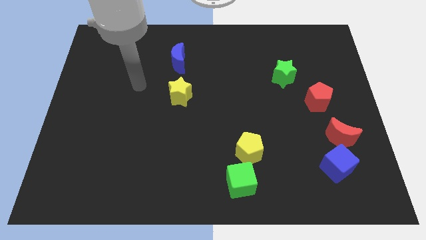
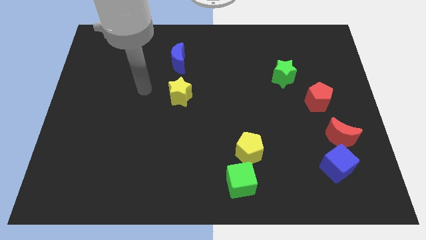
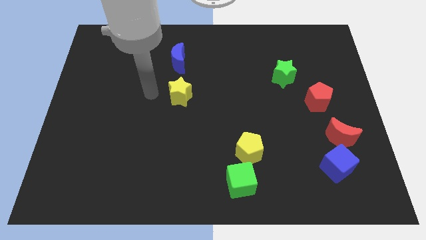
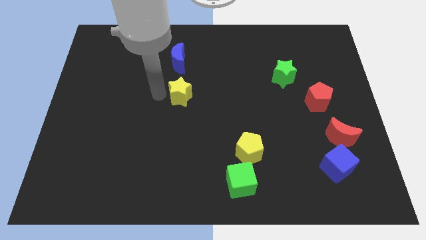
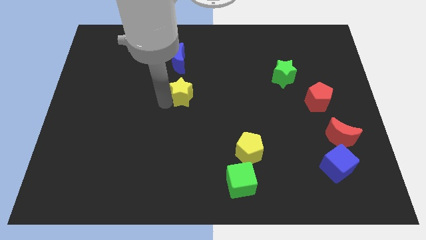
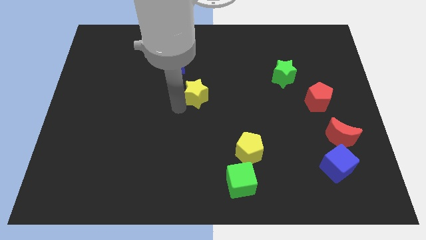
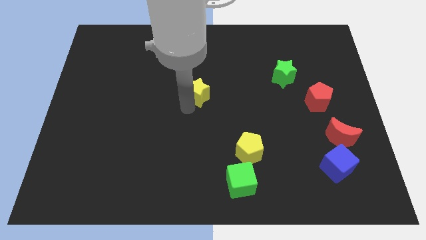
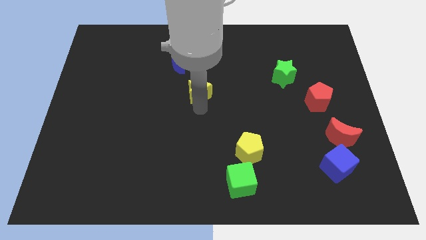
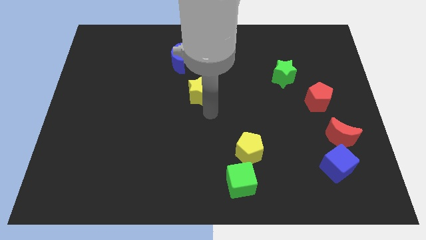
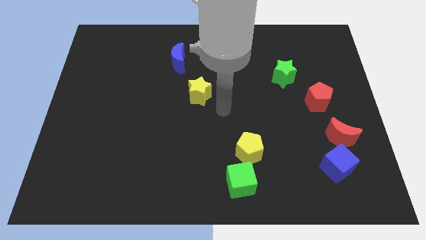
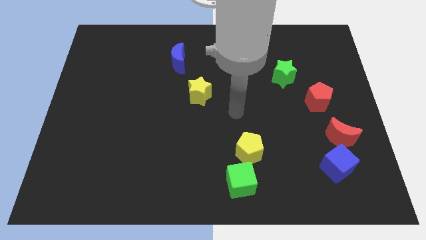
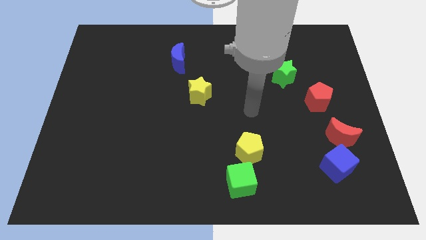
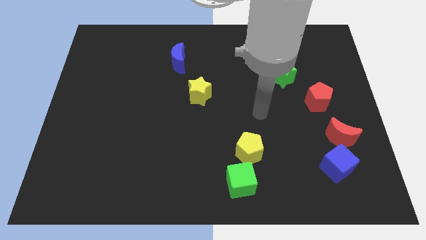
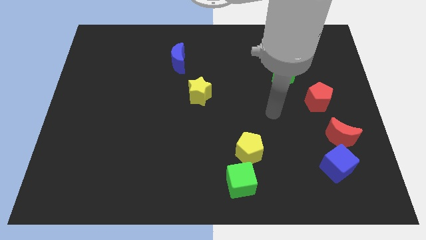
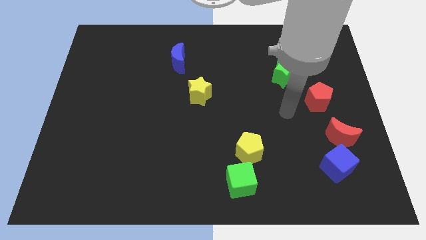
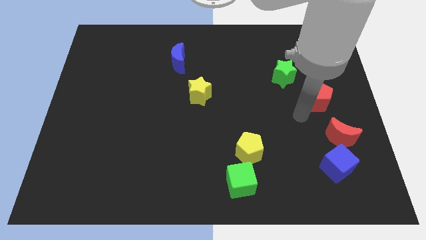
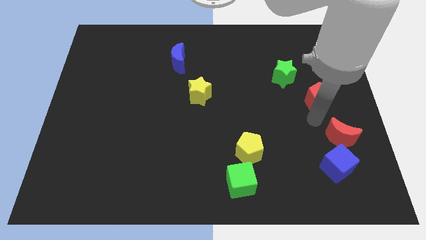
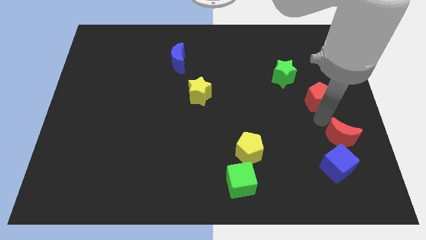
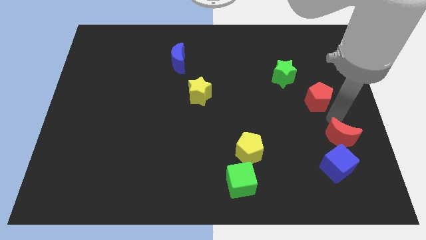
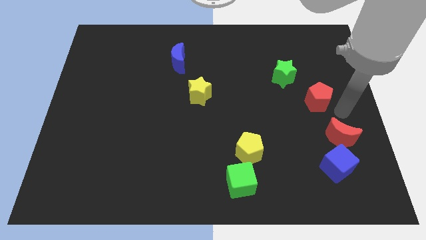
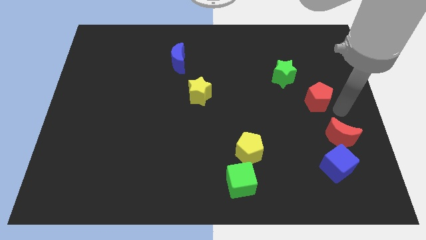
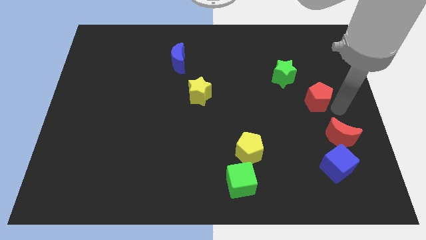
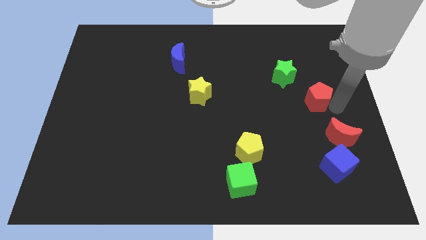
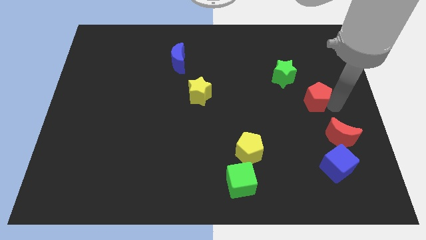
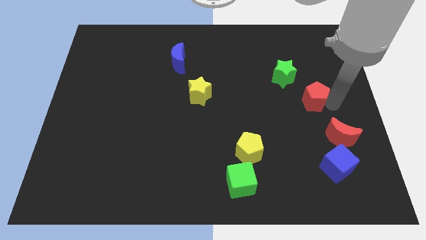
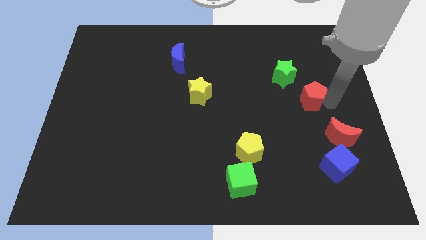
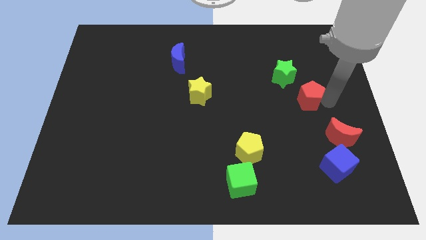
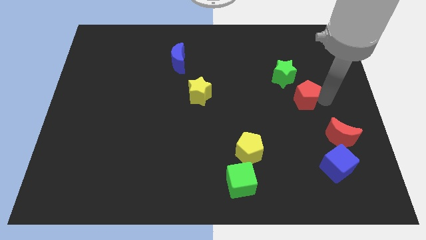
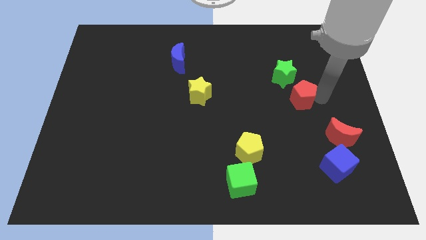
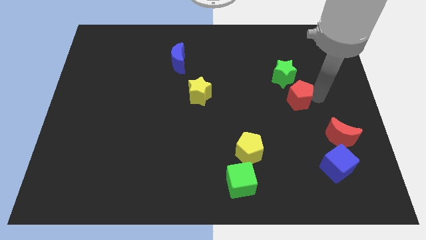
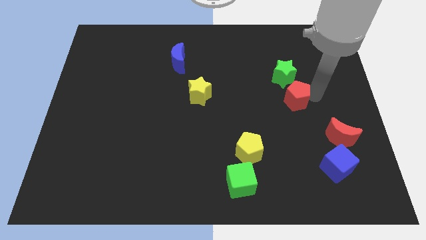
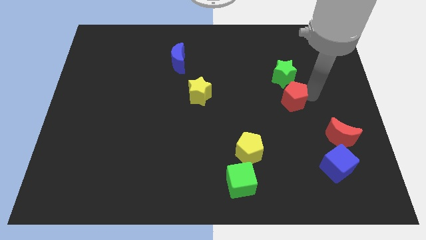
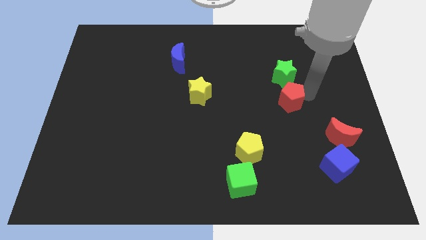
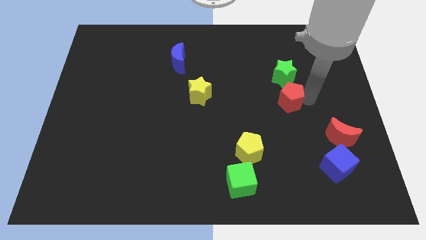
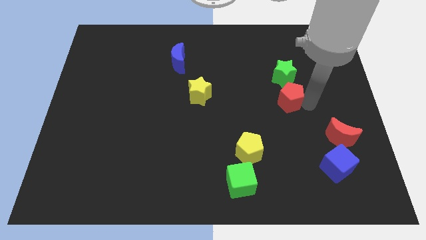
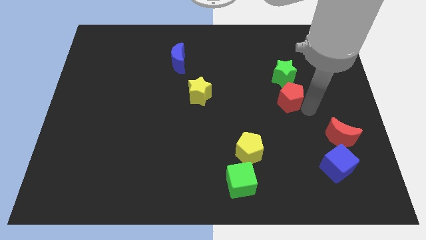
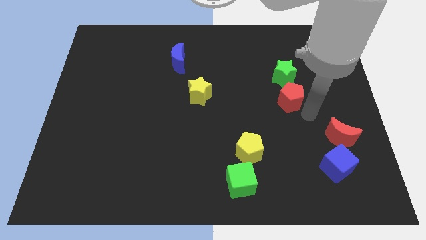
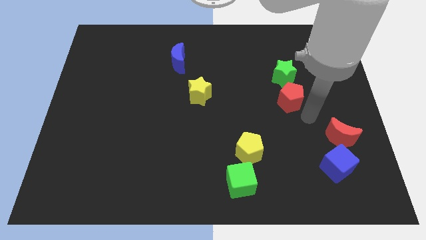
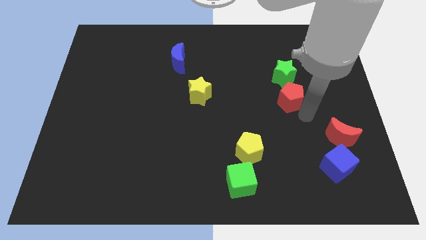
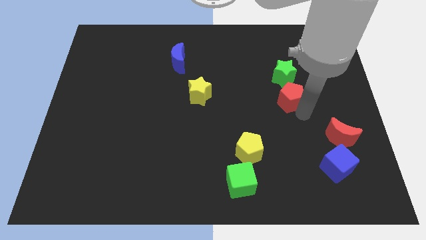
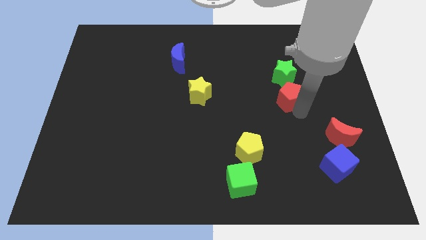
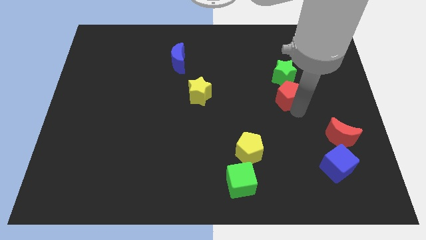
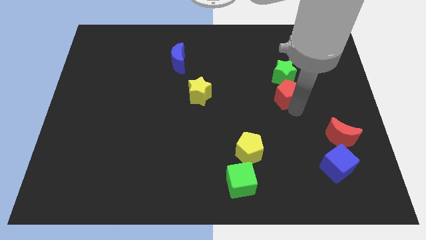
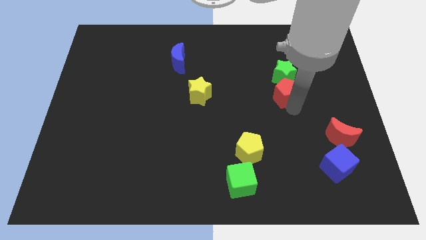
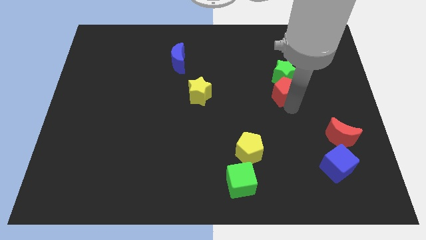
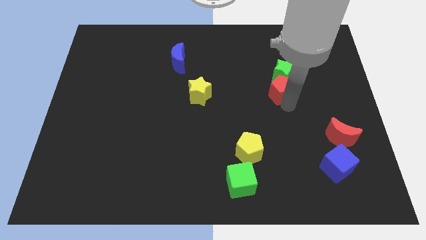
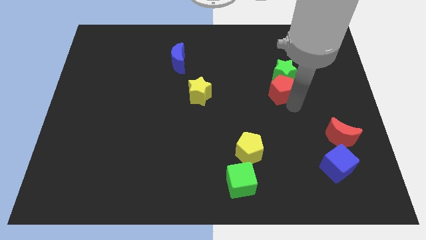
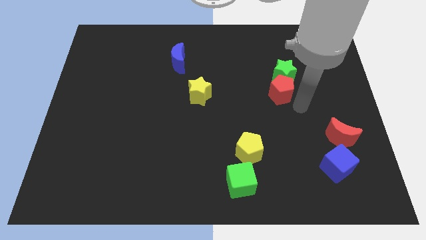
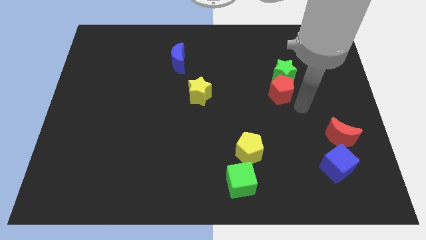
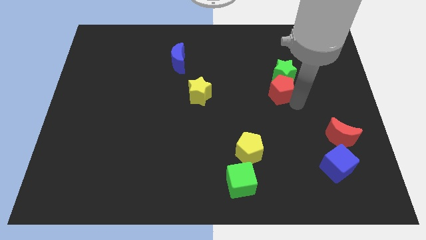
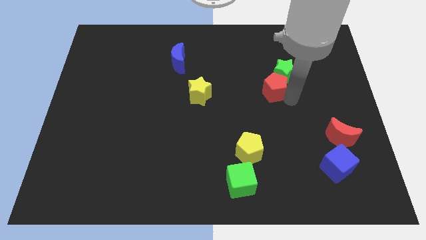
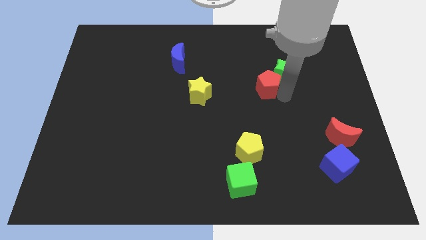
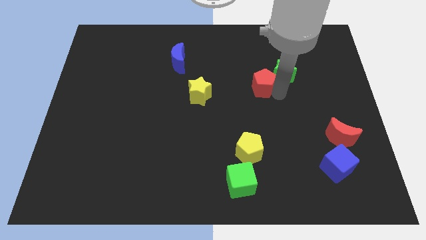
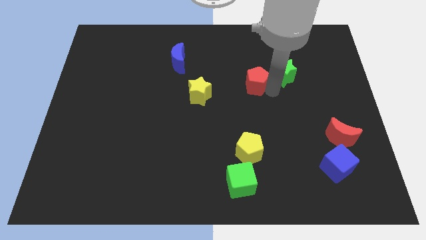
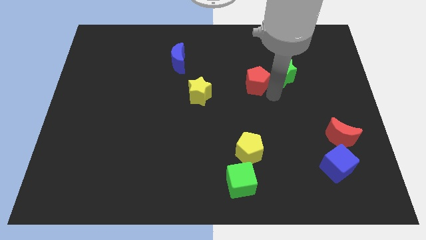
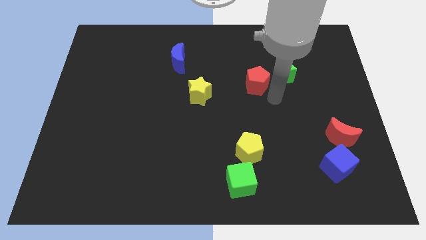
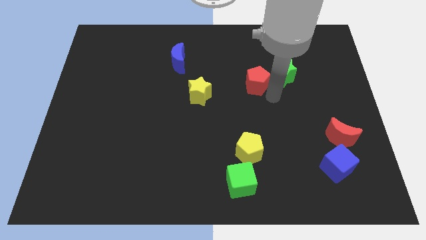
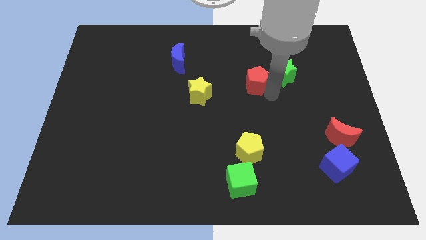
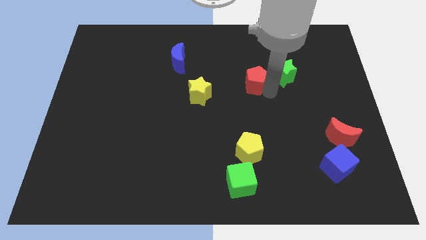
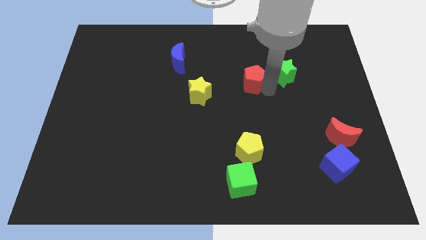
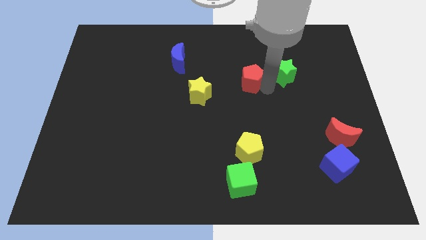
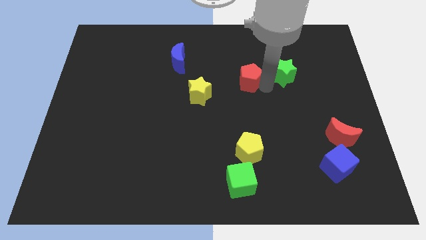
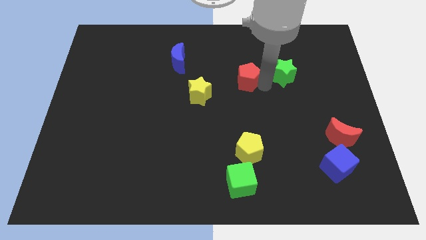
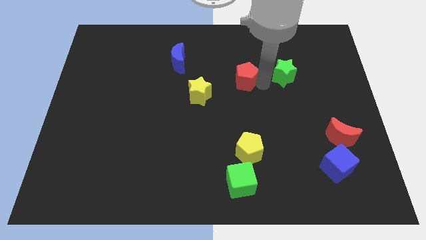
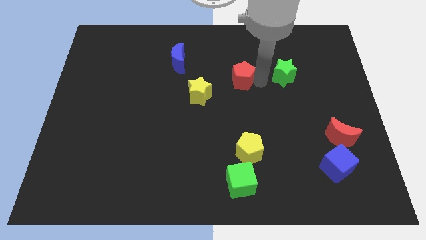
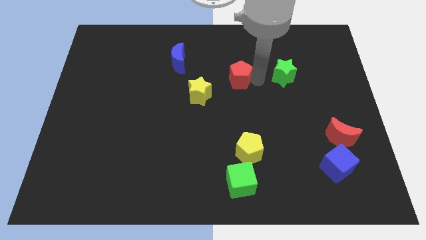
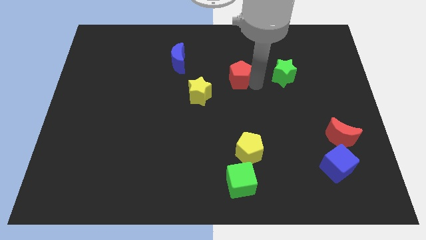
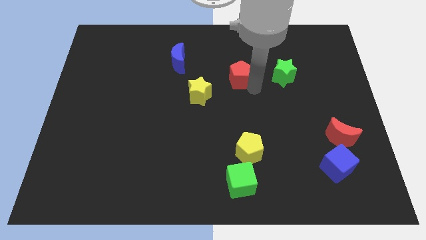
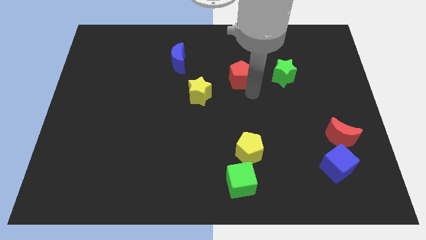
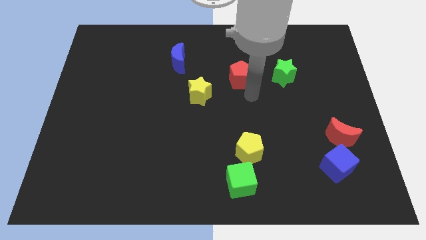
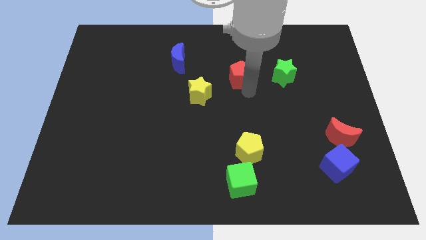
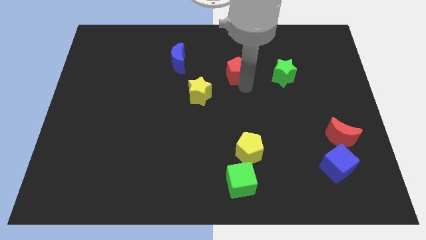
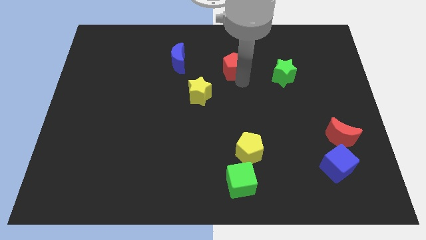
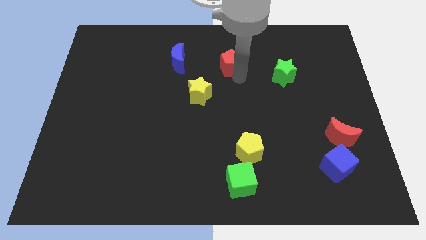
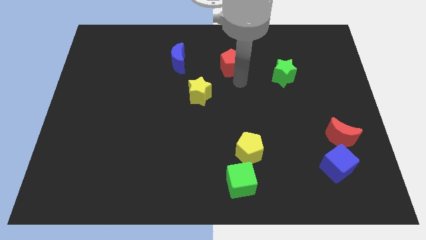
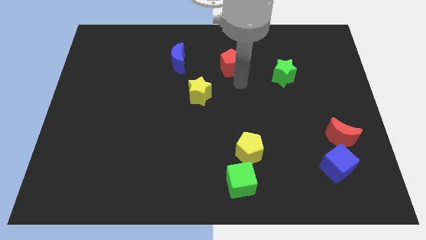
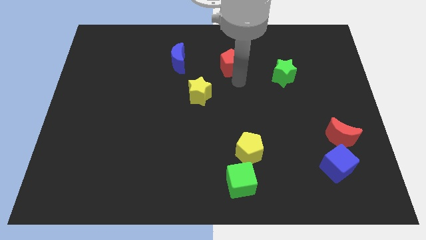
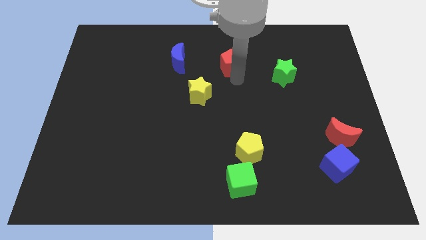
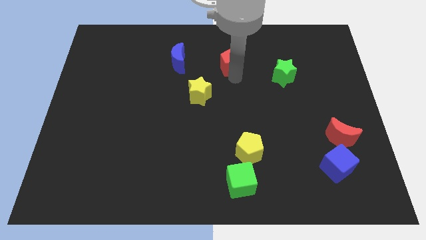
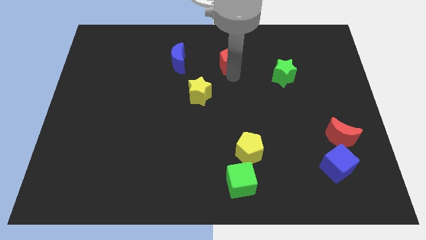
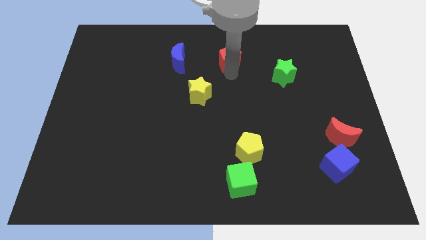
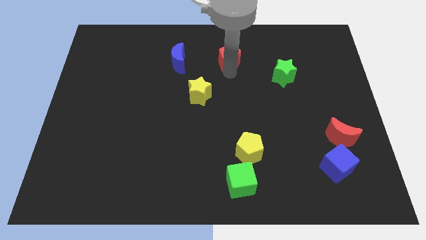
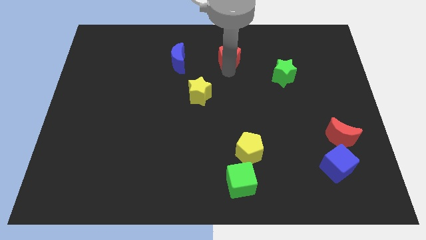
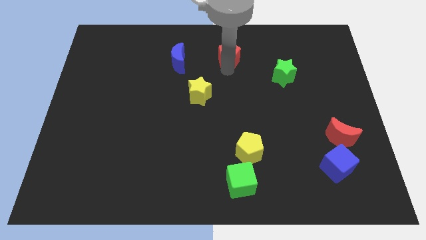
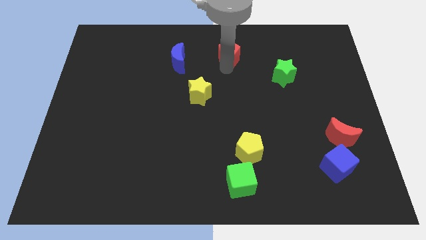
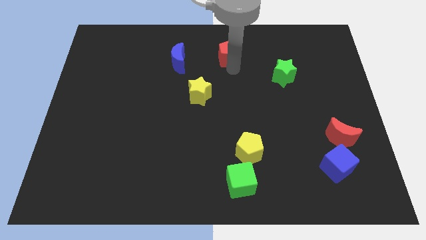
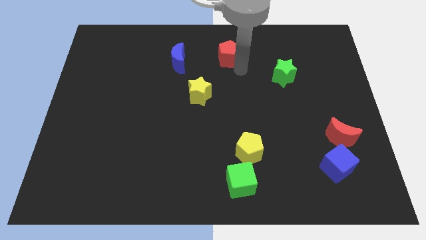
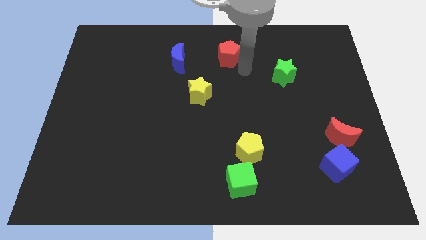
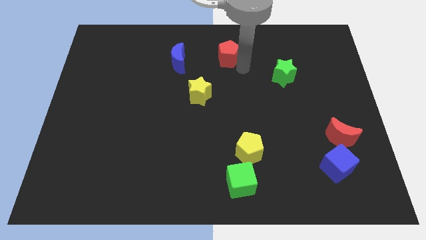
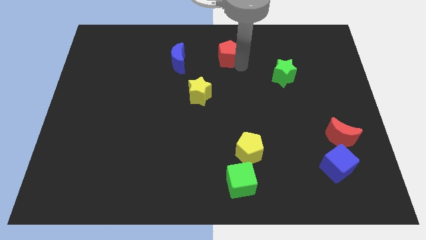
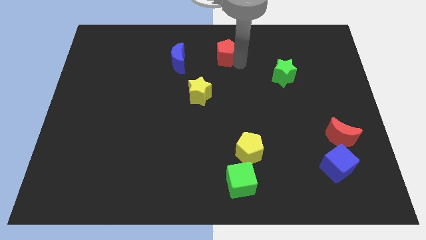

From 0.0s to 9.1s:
move the red pentagon to the top side
